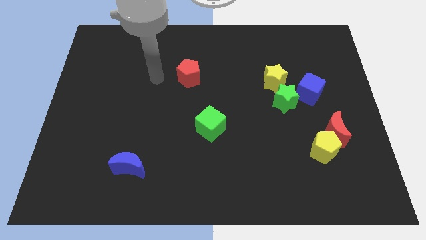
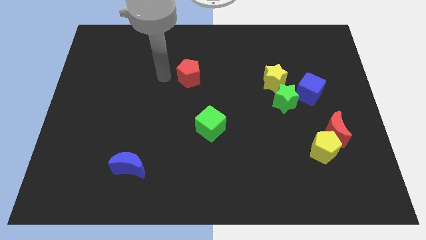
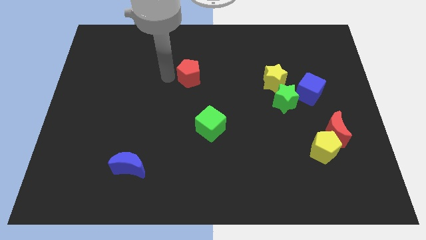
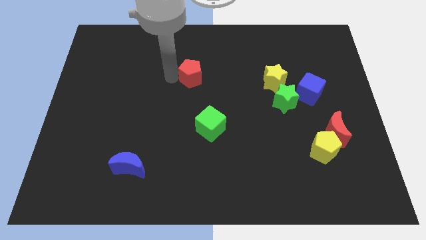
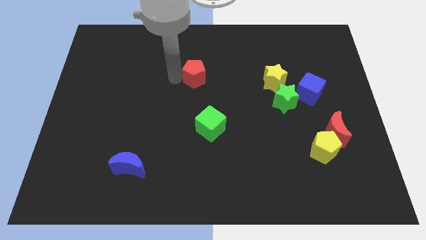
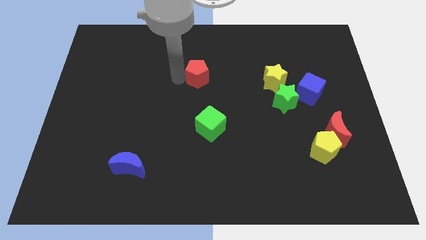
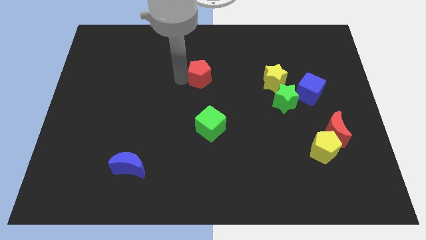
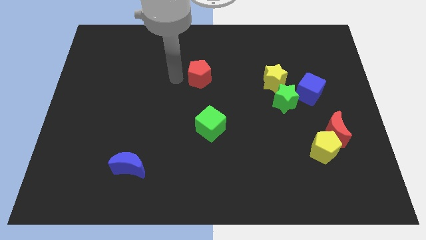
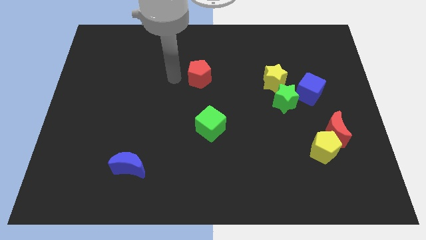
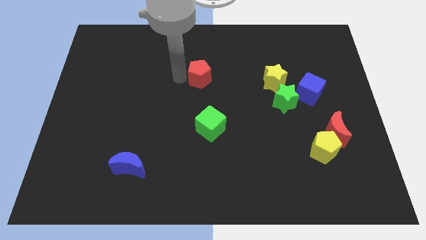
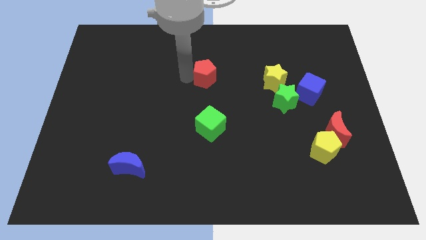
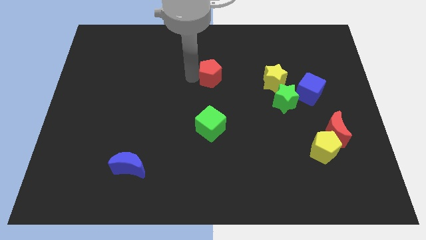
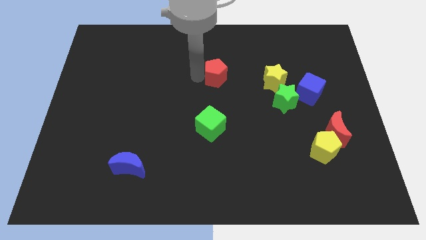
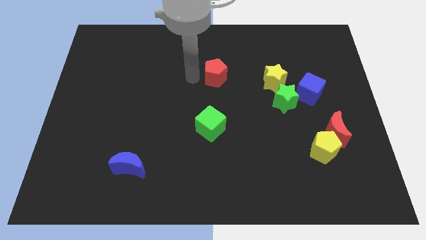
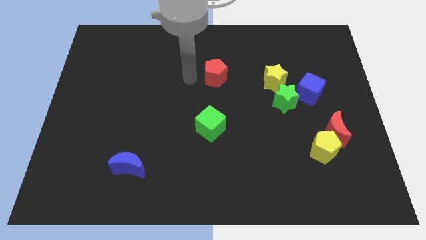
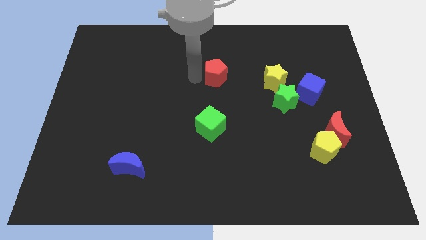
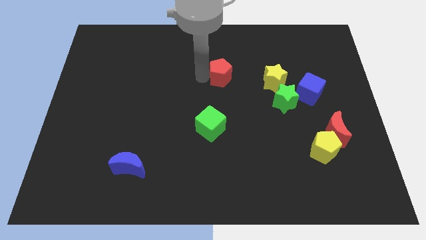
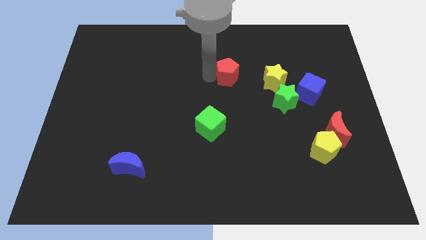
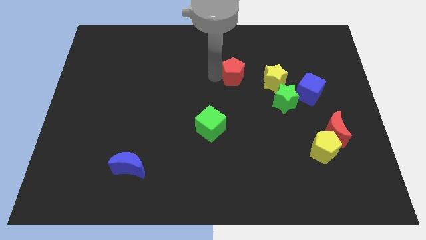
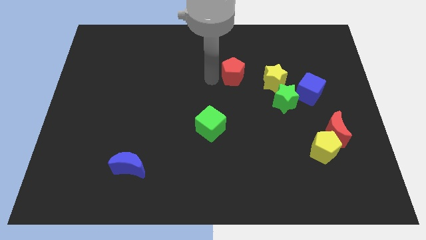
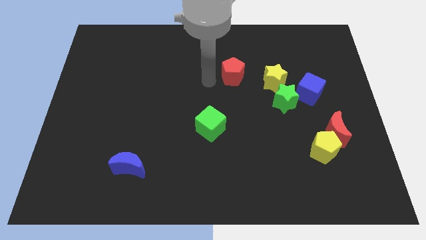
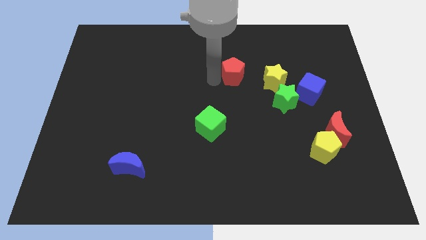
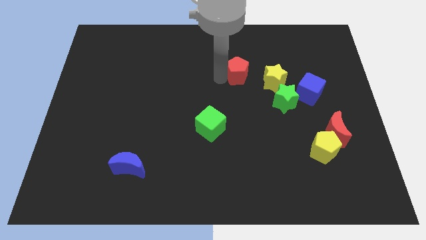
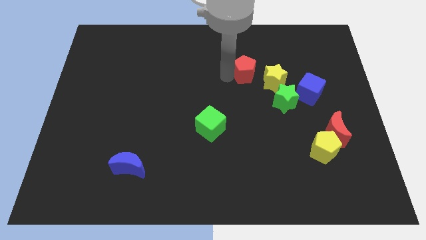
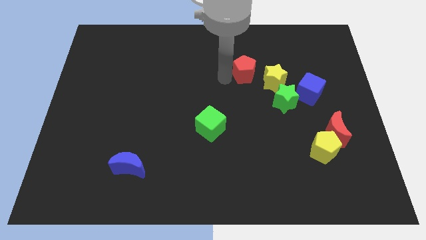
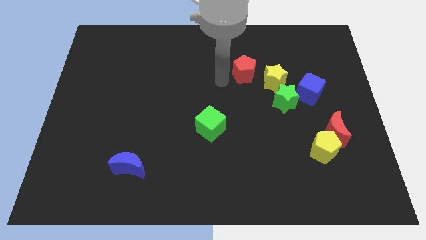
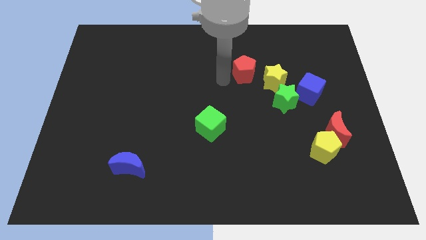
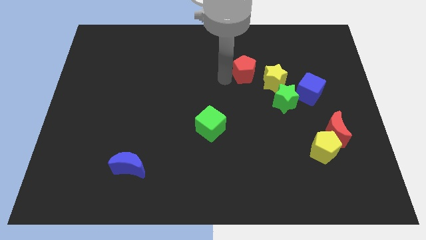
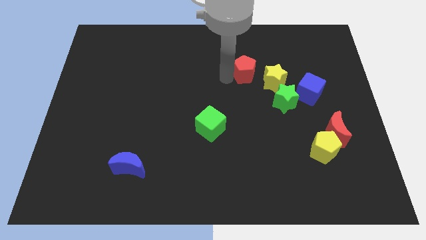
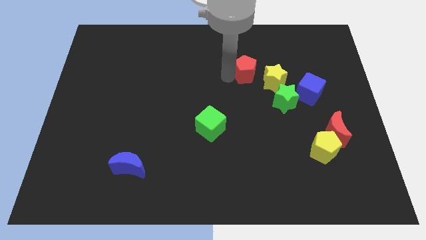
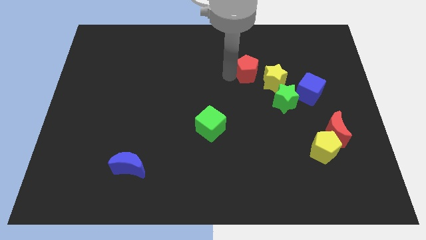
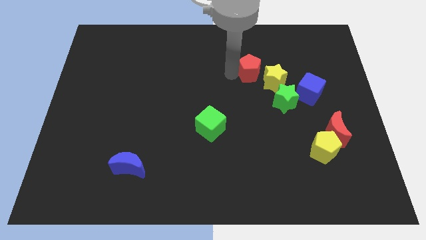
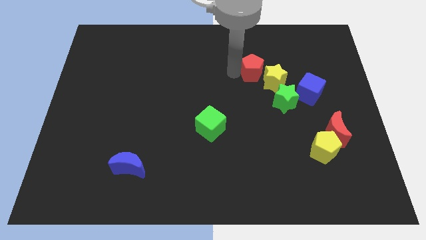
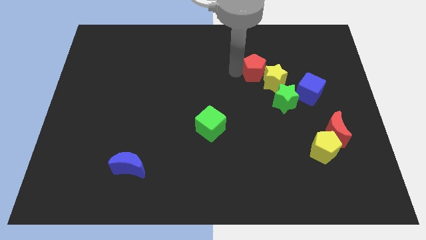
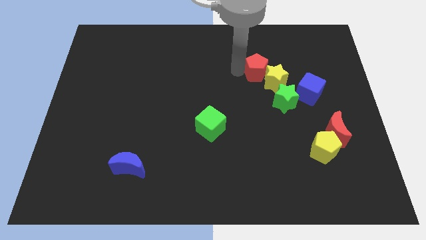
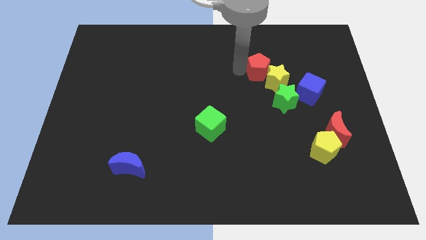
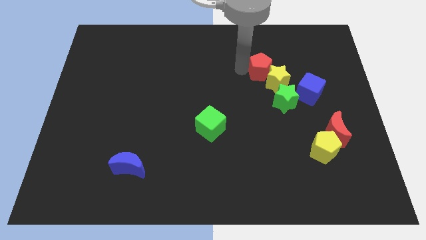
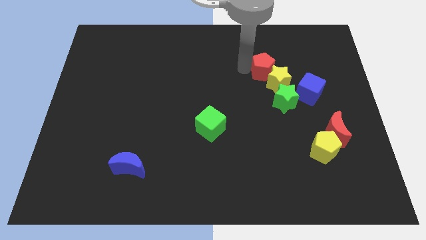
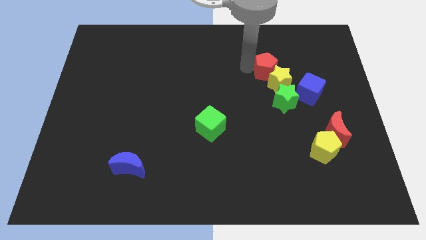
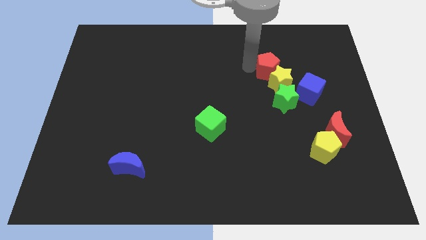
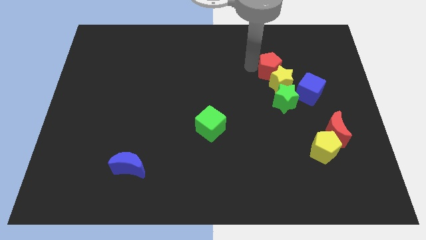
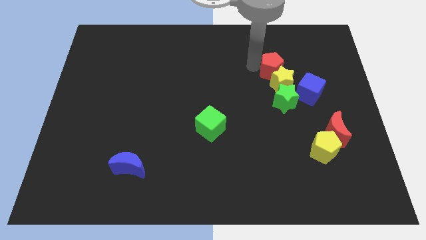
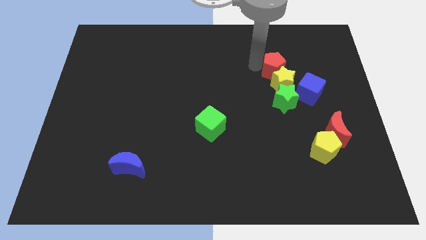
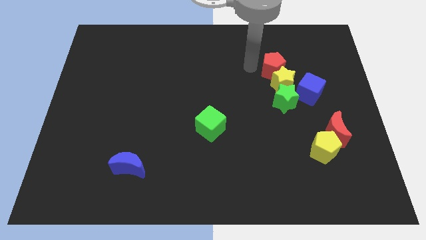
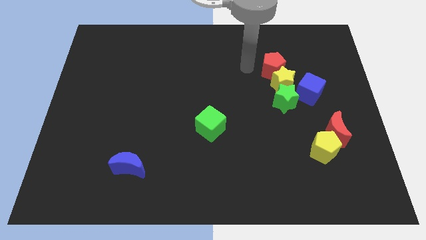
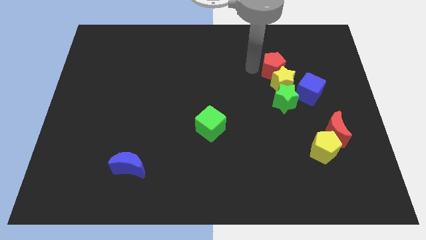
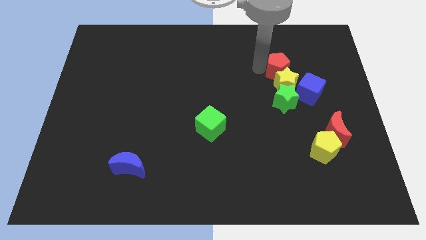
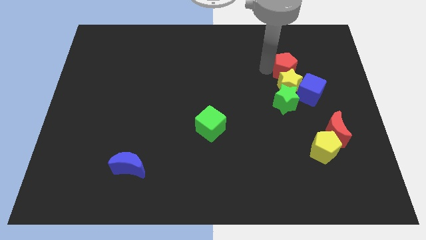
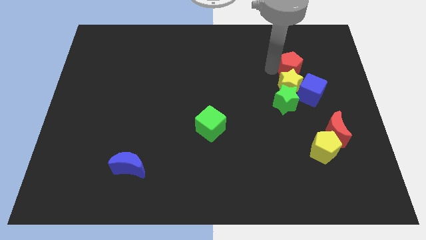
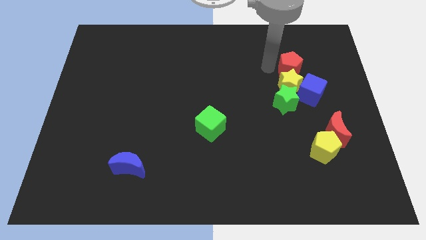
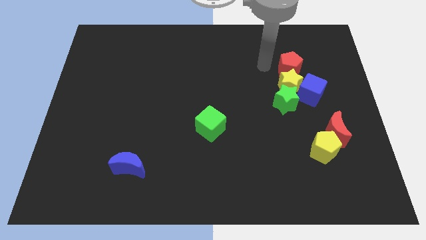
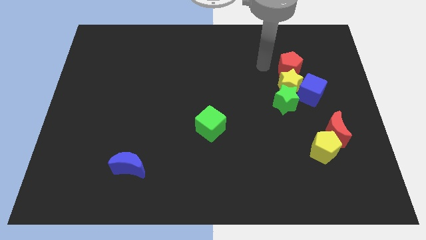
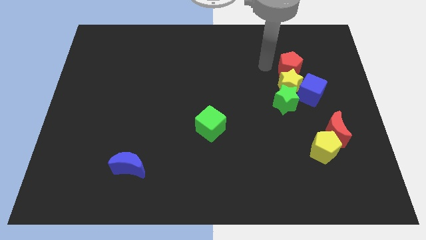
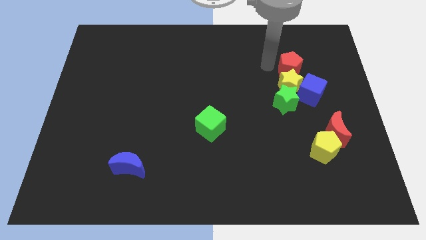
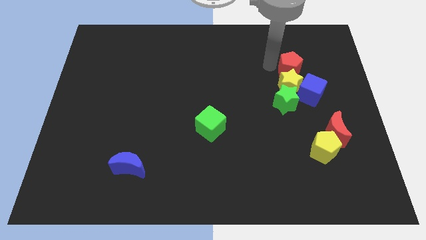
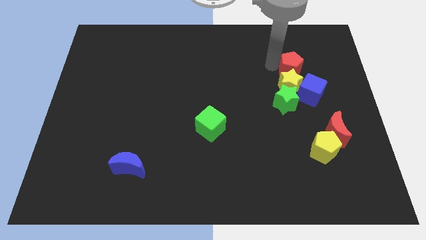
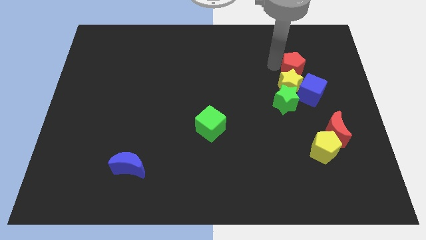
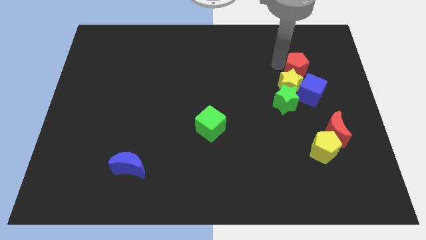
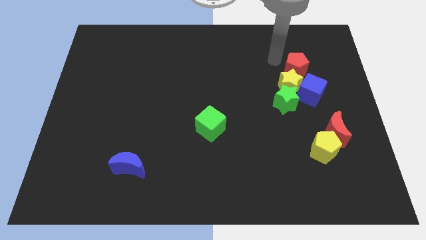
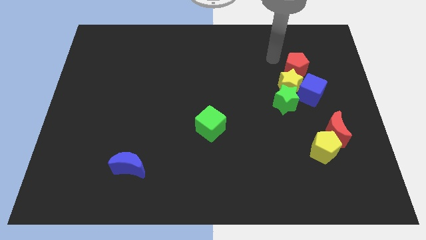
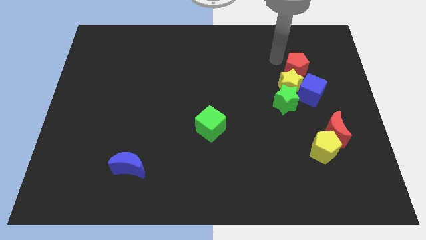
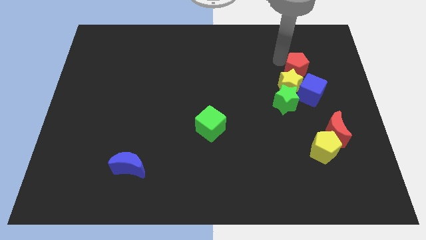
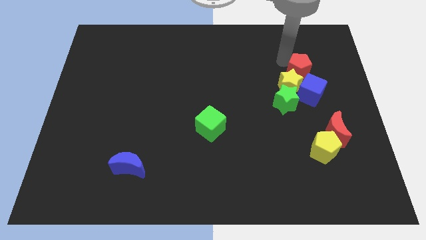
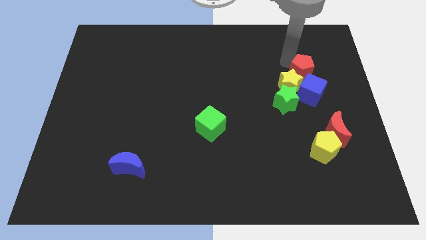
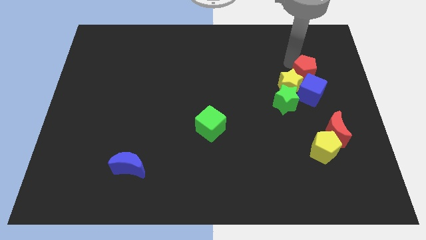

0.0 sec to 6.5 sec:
push the red pentagon just right of the yellow star

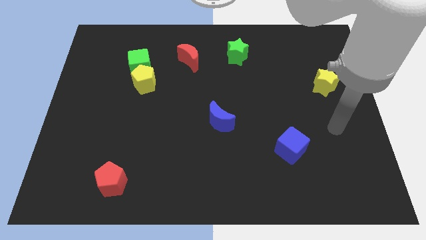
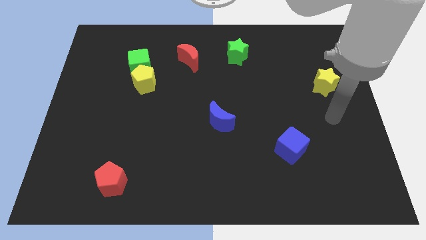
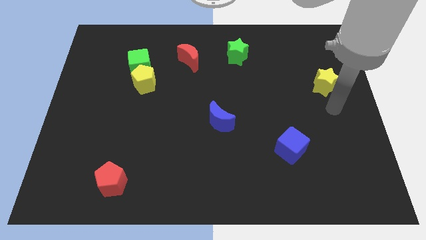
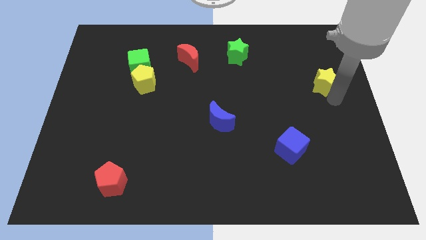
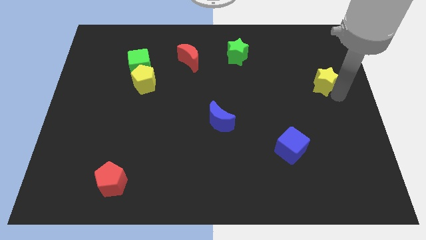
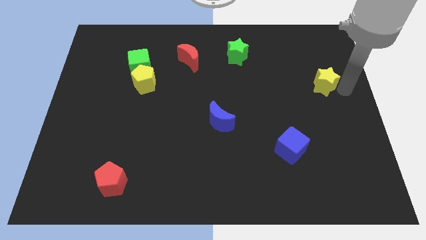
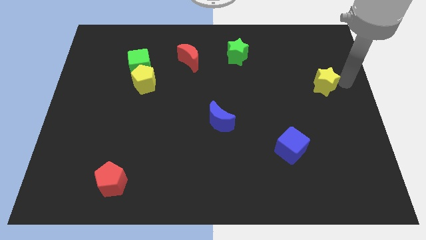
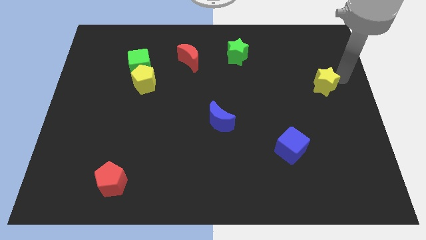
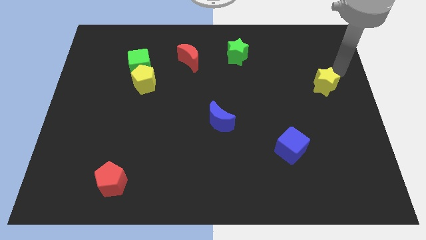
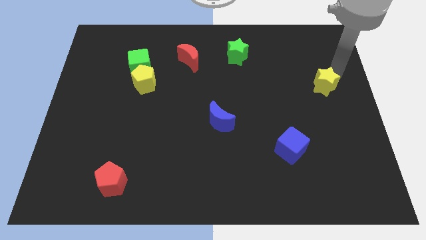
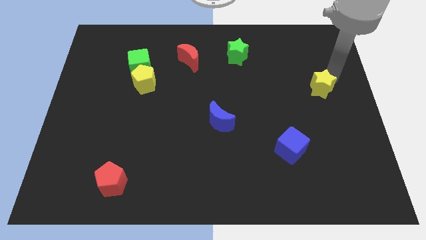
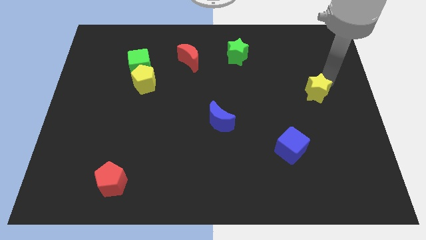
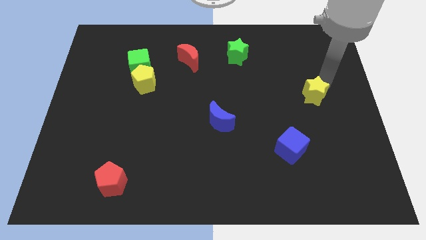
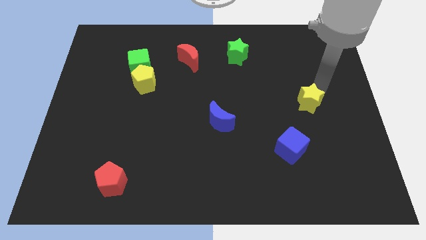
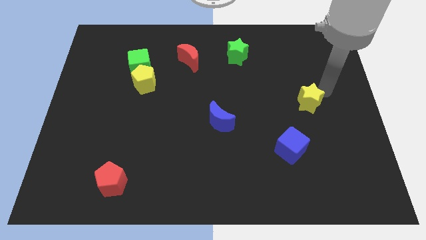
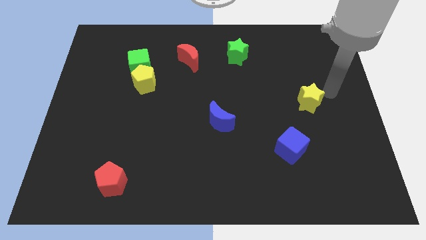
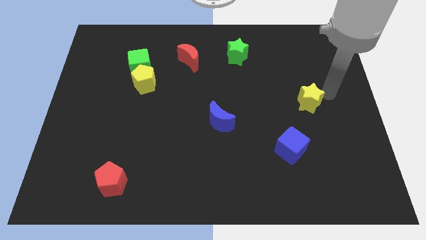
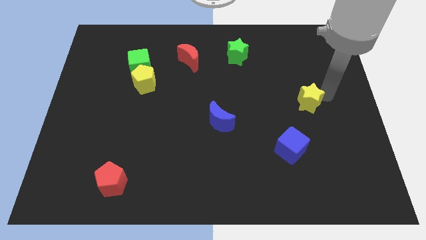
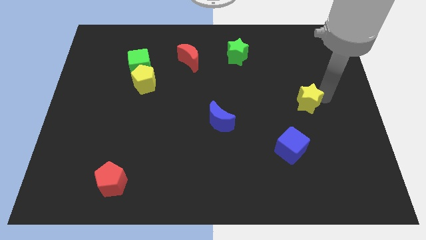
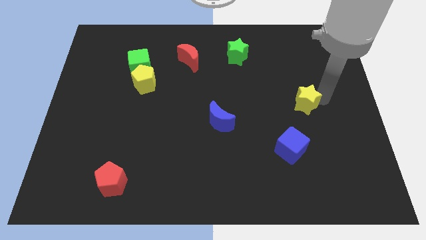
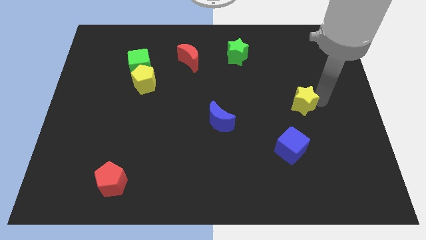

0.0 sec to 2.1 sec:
slide the yellow star to the top side of the blue cube
